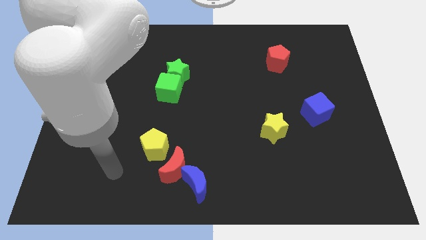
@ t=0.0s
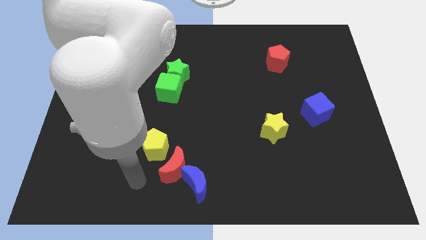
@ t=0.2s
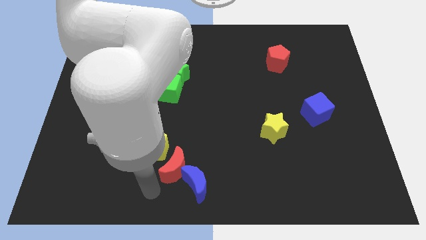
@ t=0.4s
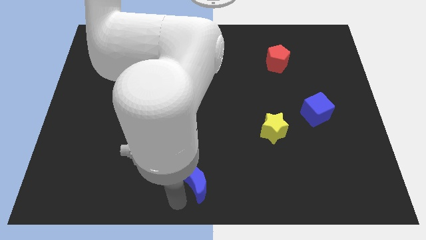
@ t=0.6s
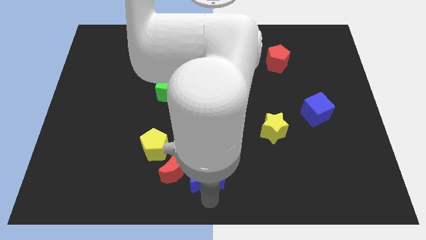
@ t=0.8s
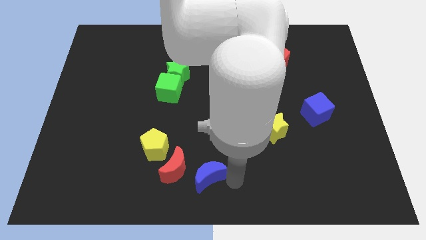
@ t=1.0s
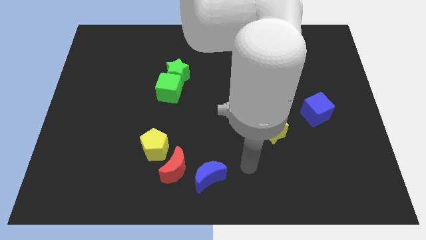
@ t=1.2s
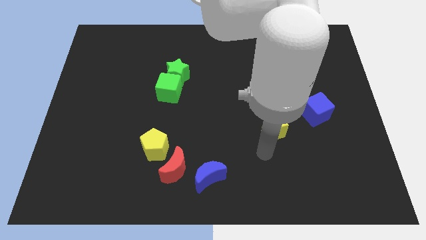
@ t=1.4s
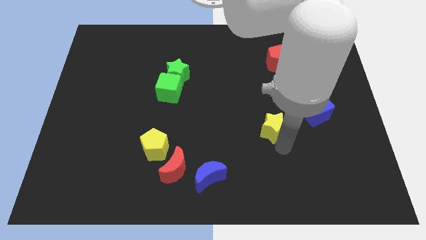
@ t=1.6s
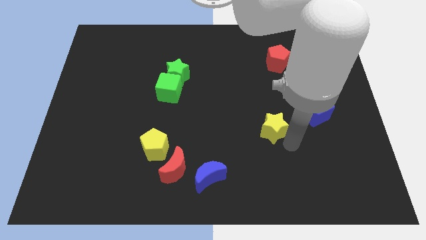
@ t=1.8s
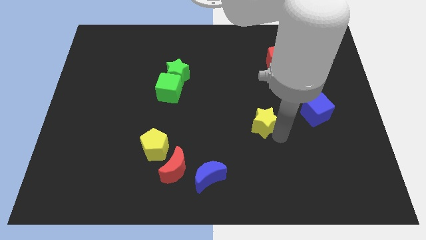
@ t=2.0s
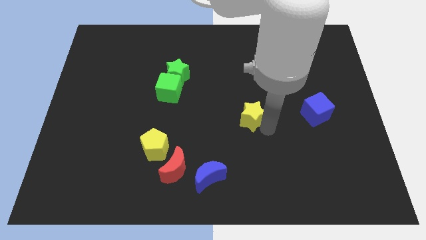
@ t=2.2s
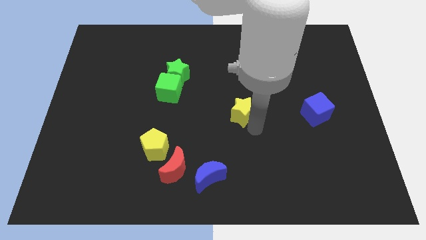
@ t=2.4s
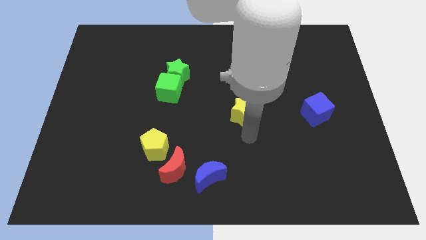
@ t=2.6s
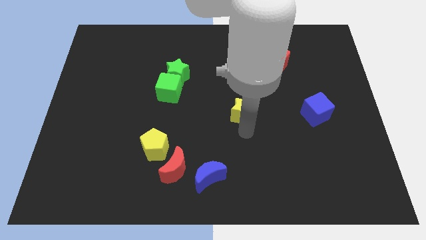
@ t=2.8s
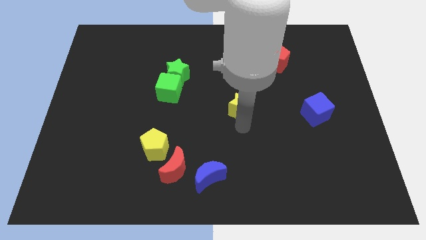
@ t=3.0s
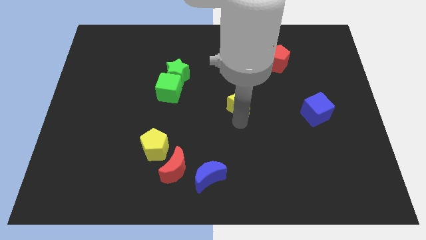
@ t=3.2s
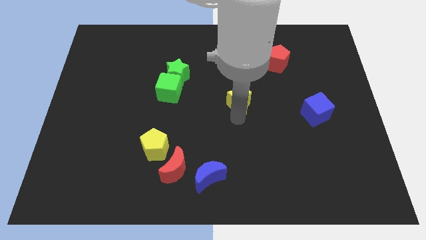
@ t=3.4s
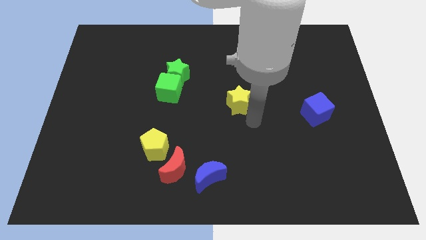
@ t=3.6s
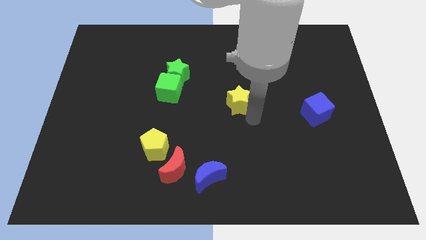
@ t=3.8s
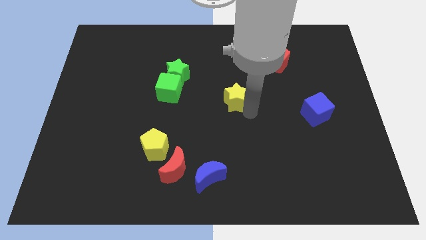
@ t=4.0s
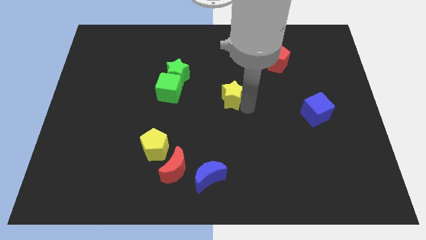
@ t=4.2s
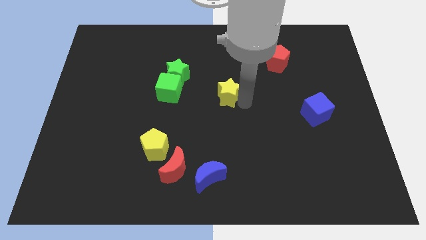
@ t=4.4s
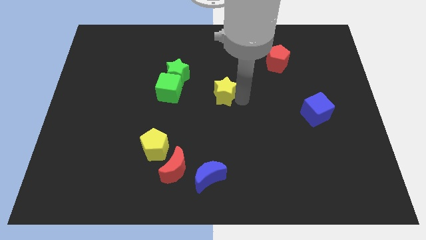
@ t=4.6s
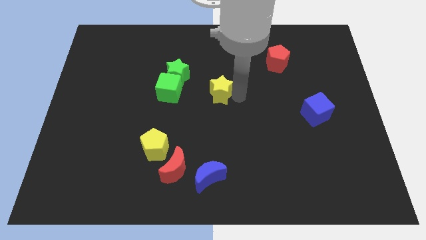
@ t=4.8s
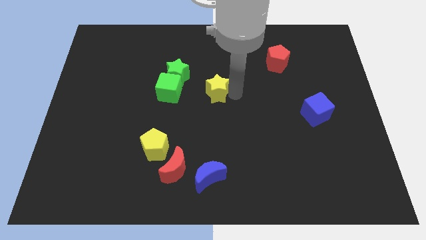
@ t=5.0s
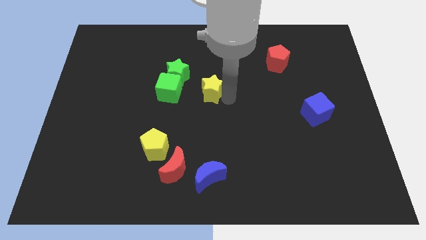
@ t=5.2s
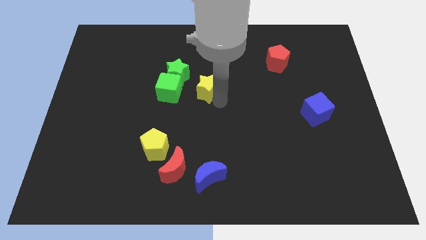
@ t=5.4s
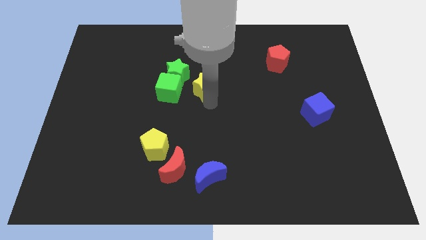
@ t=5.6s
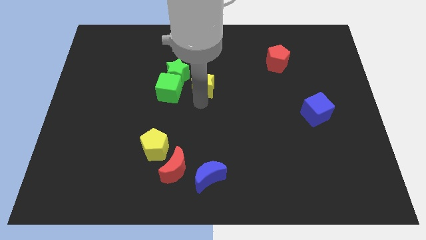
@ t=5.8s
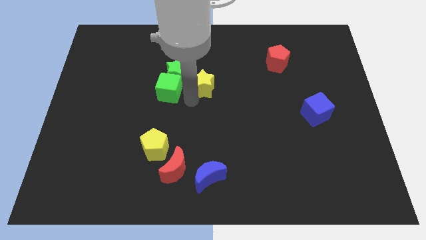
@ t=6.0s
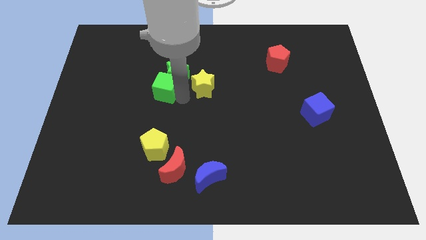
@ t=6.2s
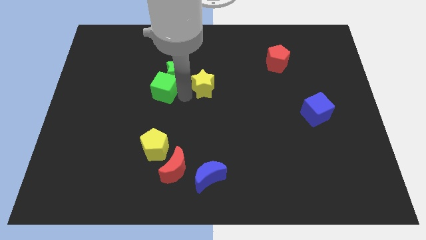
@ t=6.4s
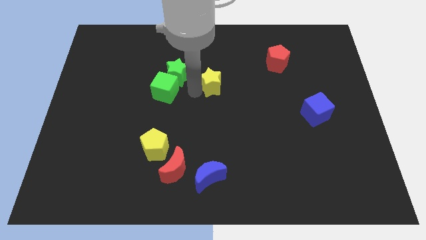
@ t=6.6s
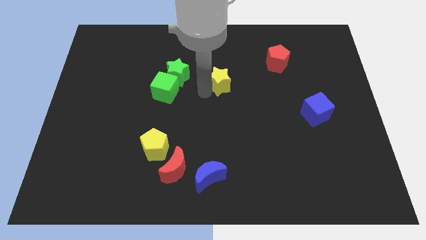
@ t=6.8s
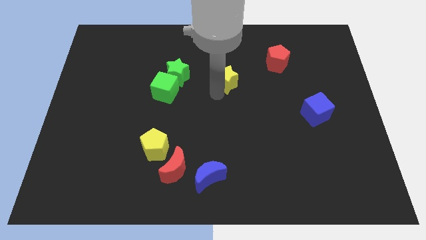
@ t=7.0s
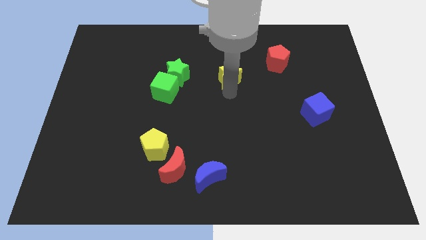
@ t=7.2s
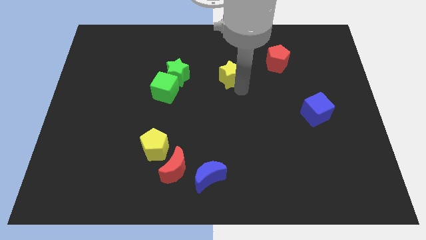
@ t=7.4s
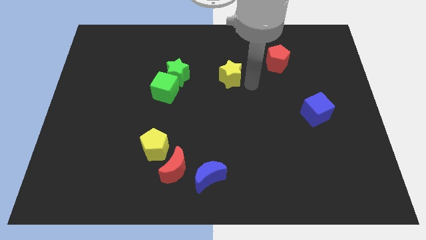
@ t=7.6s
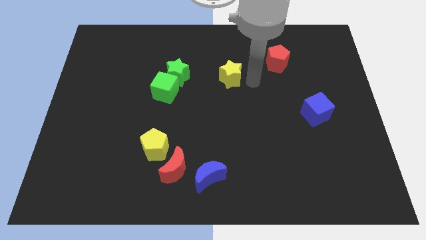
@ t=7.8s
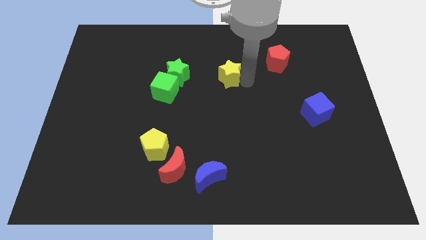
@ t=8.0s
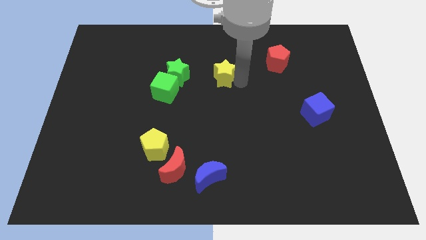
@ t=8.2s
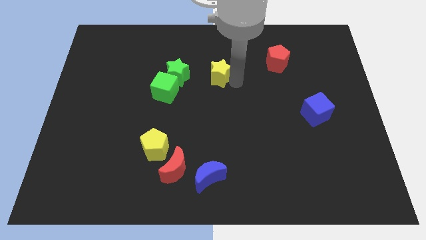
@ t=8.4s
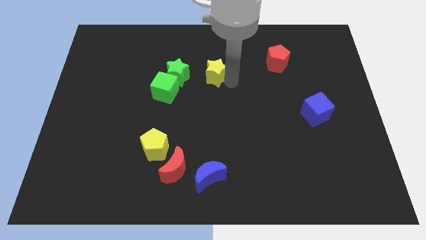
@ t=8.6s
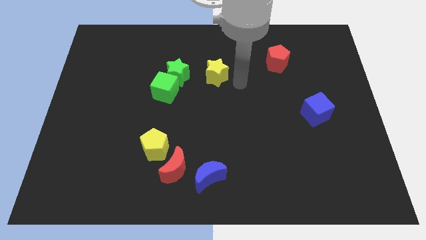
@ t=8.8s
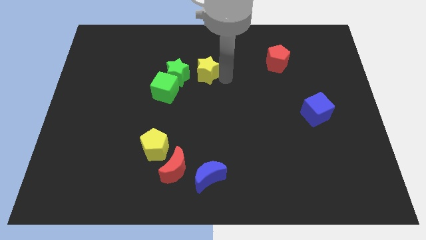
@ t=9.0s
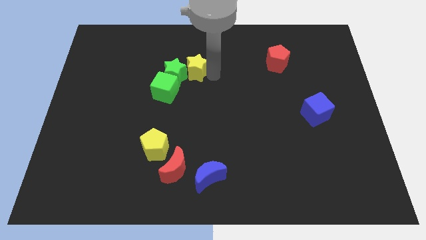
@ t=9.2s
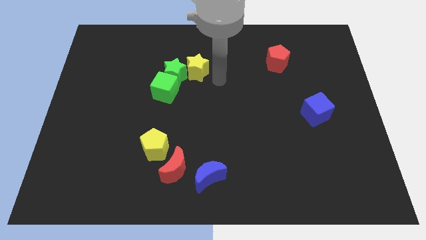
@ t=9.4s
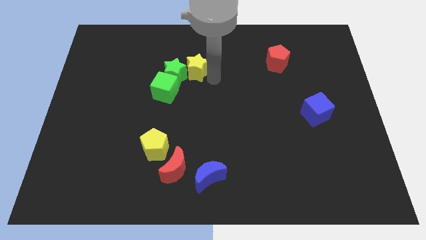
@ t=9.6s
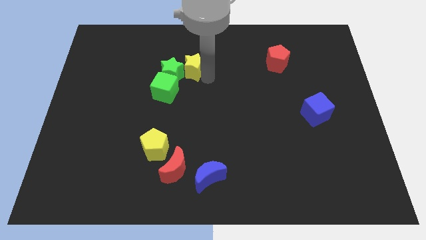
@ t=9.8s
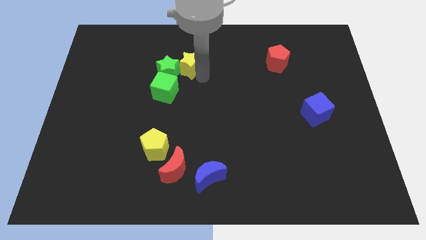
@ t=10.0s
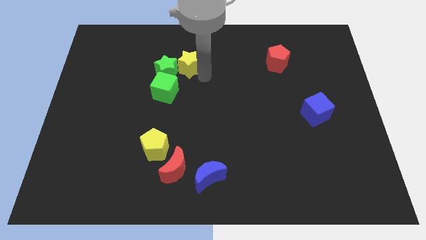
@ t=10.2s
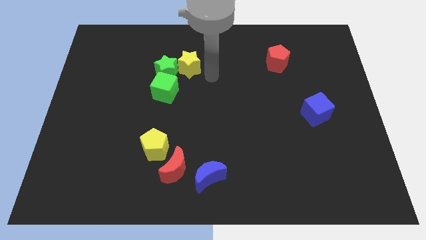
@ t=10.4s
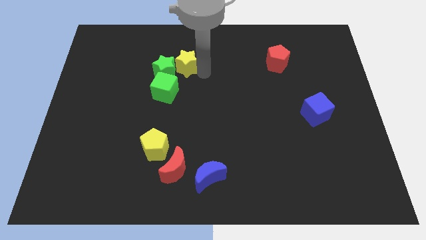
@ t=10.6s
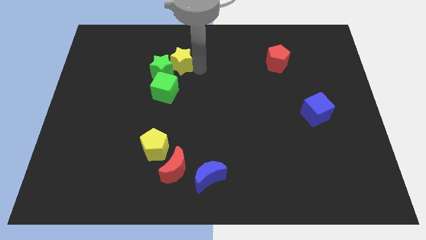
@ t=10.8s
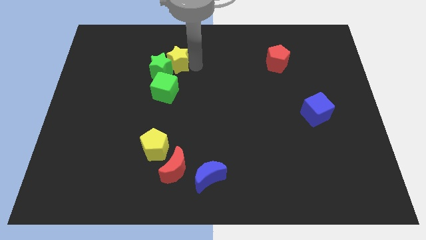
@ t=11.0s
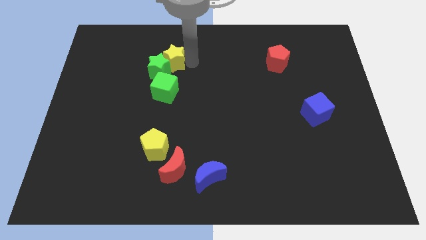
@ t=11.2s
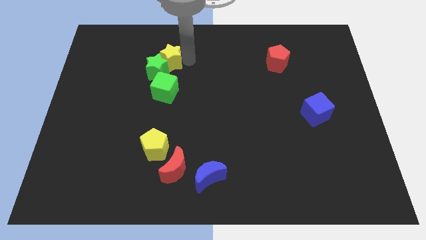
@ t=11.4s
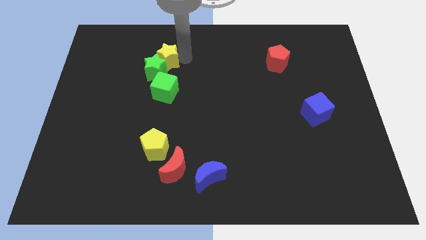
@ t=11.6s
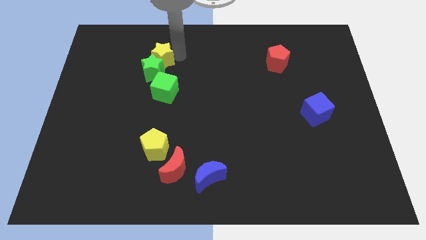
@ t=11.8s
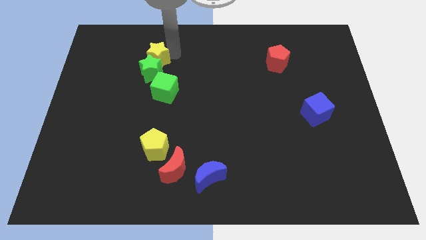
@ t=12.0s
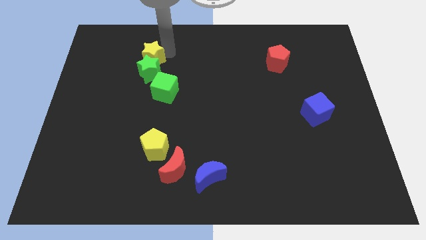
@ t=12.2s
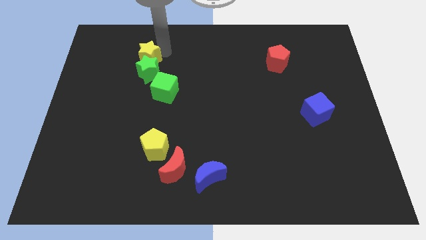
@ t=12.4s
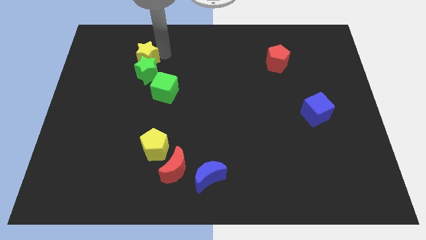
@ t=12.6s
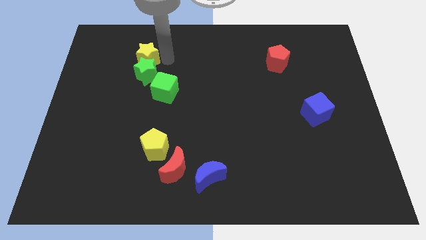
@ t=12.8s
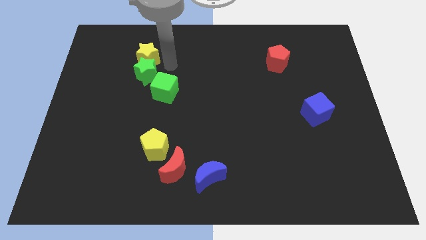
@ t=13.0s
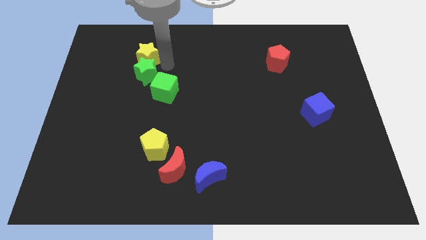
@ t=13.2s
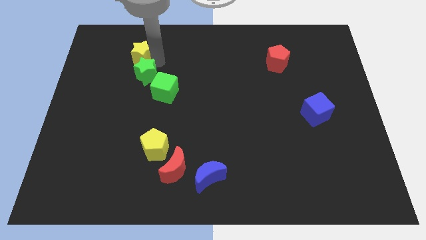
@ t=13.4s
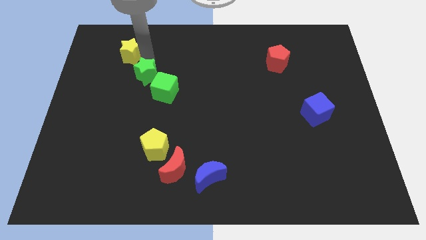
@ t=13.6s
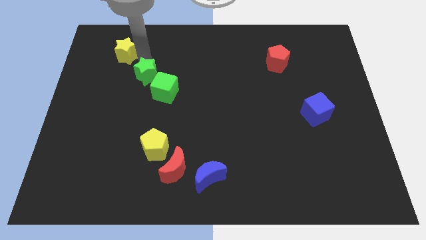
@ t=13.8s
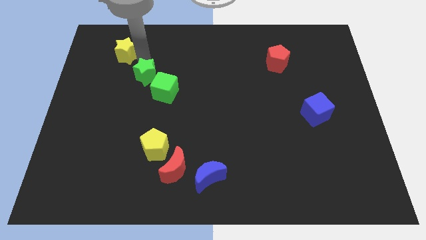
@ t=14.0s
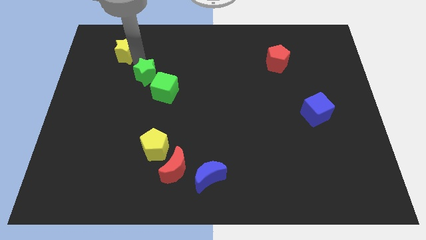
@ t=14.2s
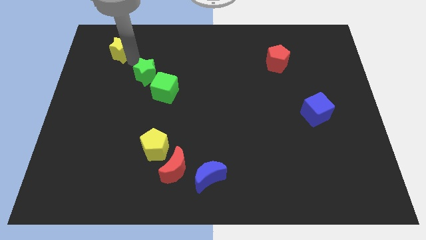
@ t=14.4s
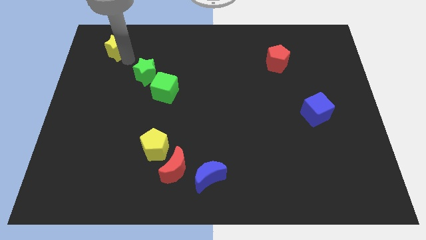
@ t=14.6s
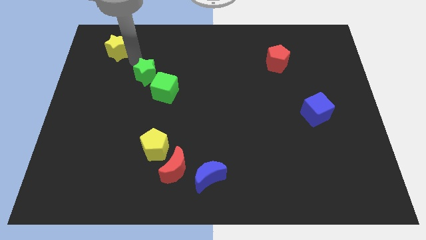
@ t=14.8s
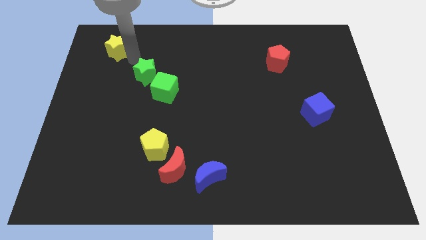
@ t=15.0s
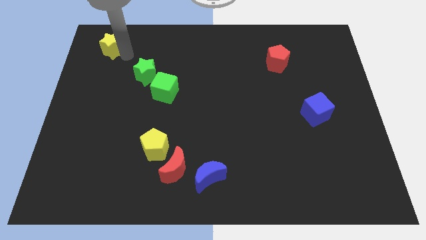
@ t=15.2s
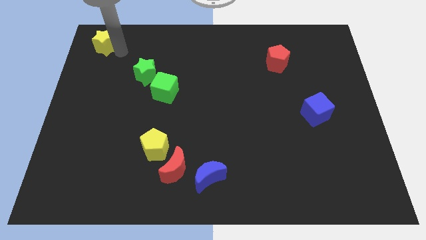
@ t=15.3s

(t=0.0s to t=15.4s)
move the yellow star to the top left of the board
